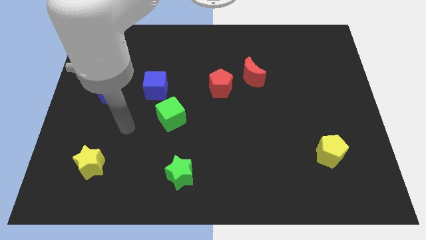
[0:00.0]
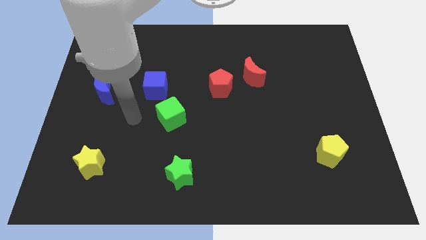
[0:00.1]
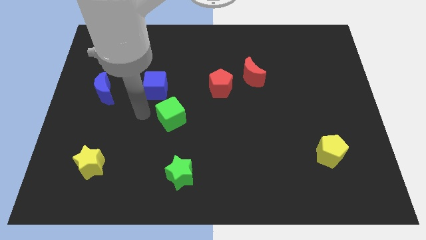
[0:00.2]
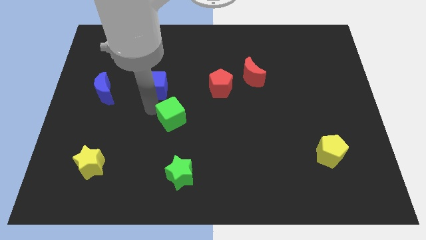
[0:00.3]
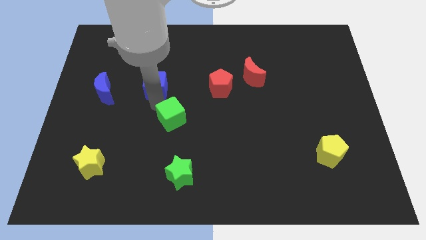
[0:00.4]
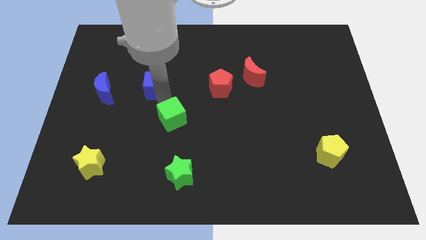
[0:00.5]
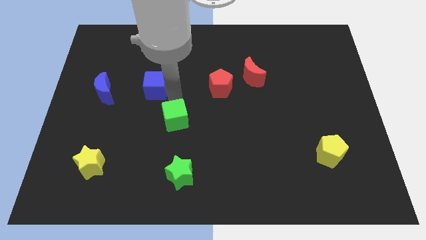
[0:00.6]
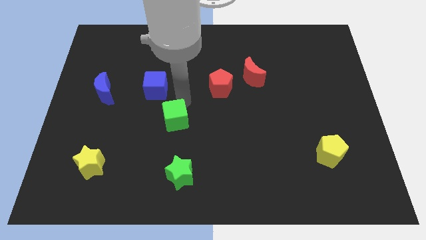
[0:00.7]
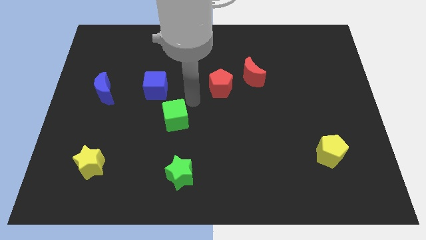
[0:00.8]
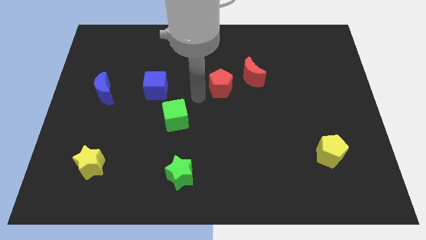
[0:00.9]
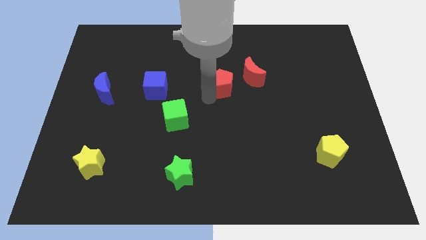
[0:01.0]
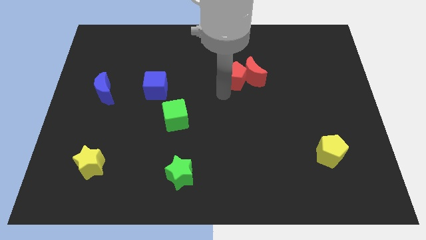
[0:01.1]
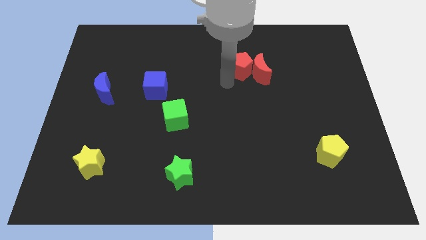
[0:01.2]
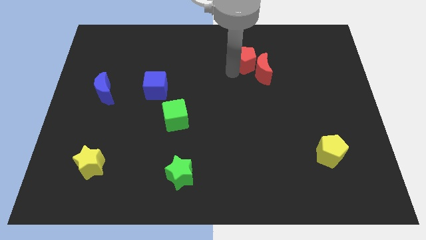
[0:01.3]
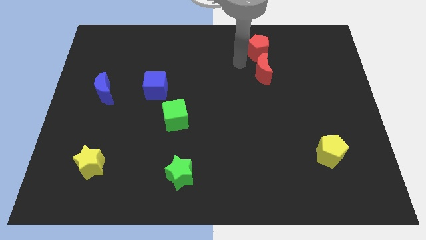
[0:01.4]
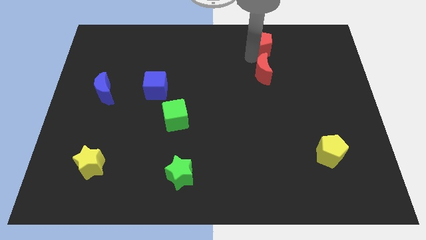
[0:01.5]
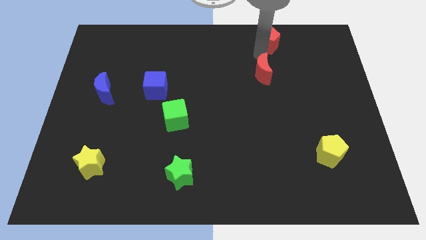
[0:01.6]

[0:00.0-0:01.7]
move the red moon away from the red pentagon

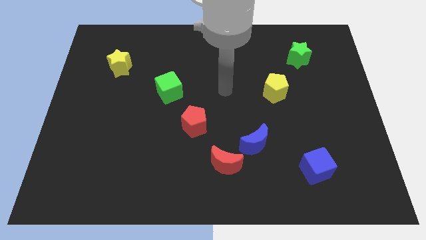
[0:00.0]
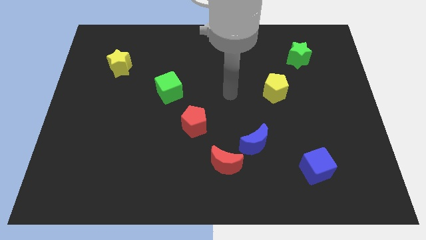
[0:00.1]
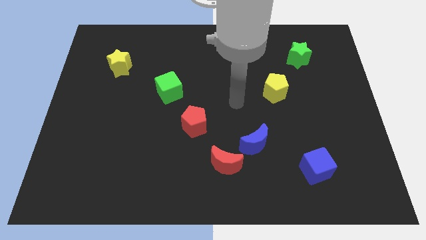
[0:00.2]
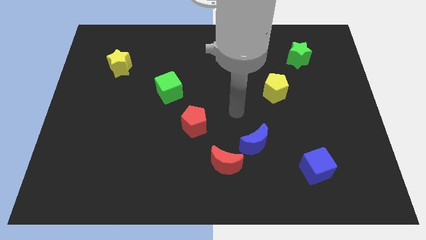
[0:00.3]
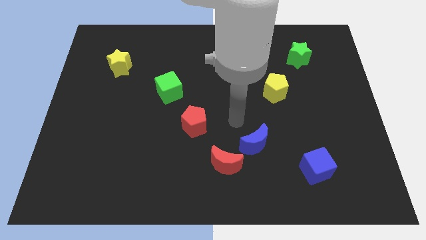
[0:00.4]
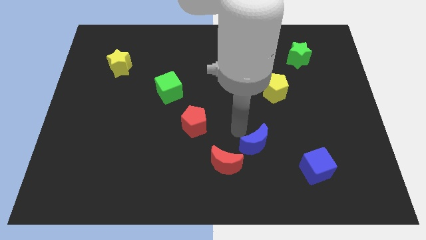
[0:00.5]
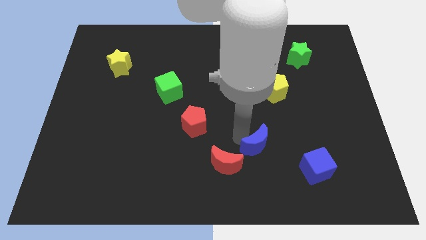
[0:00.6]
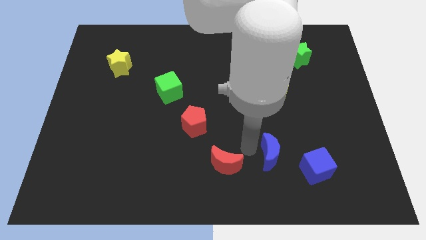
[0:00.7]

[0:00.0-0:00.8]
separate the red moon from the blue moon

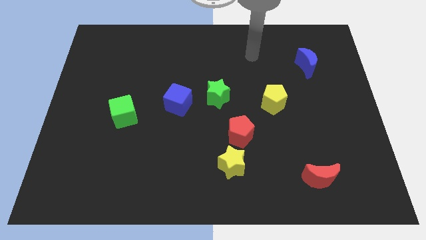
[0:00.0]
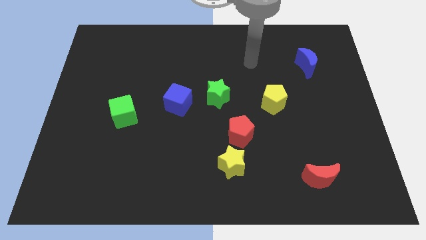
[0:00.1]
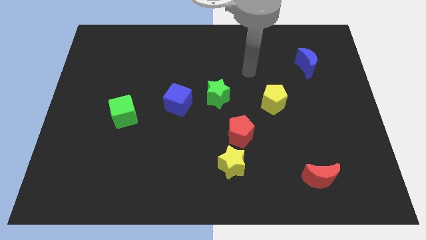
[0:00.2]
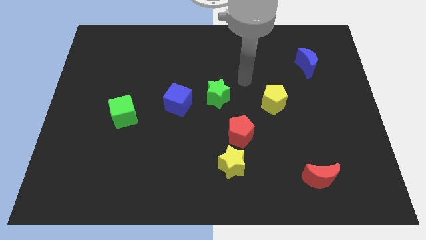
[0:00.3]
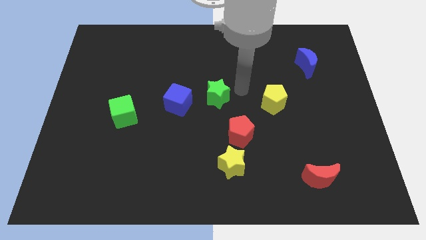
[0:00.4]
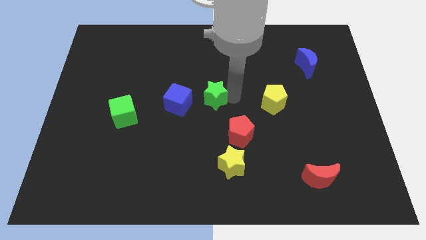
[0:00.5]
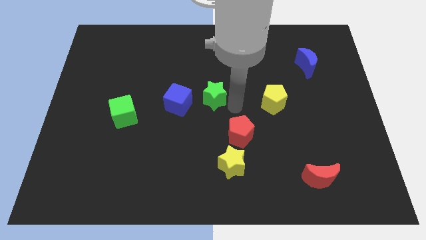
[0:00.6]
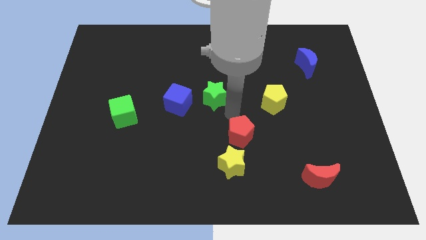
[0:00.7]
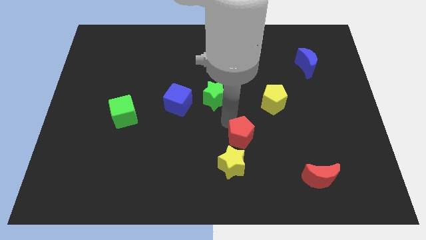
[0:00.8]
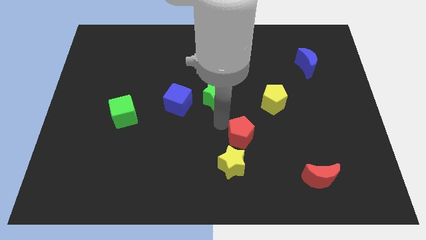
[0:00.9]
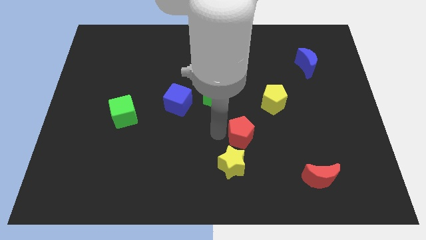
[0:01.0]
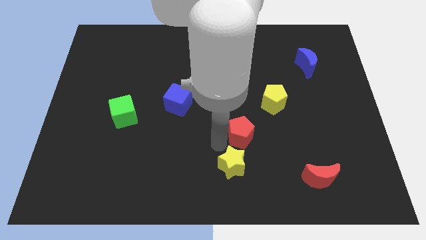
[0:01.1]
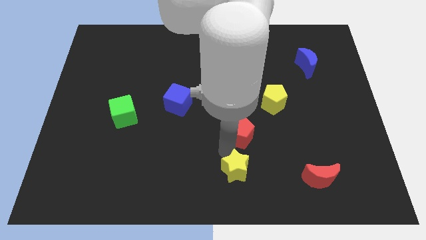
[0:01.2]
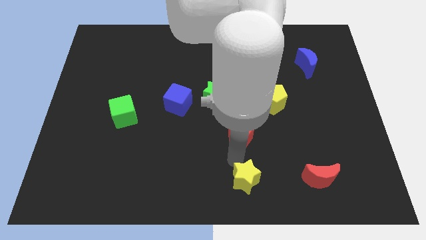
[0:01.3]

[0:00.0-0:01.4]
separate the red pentagon from the yellow star

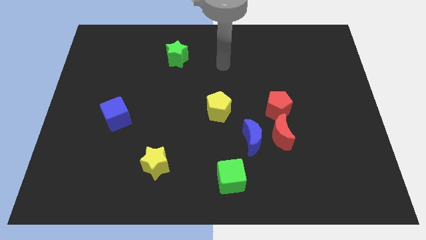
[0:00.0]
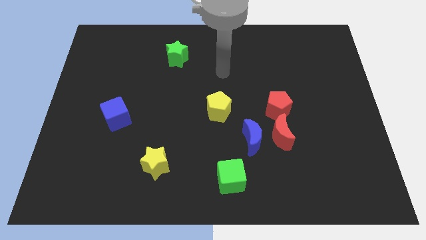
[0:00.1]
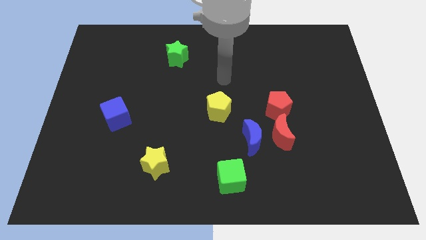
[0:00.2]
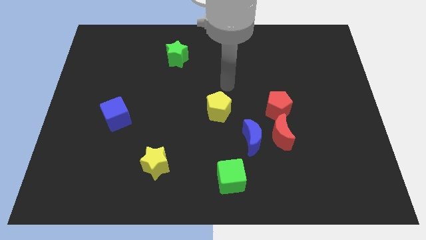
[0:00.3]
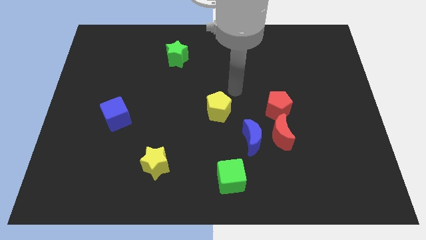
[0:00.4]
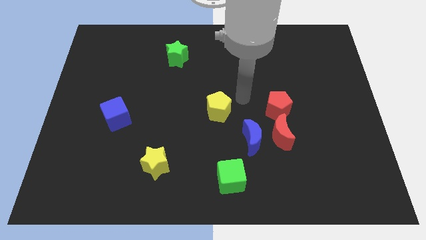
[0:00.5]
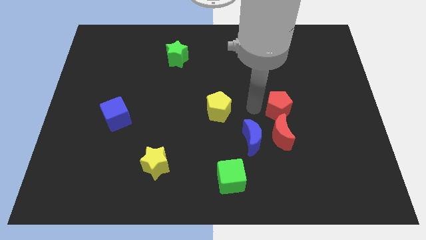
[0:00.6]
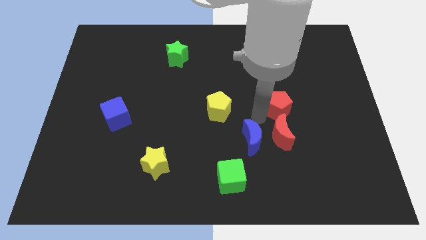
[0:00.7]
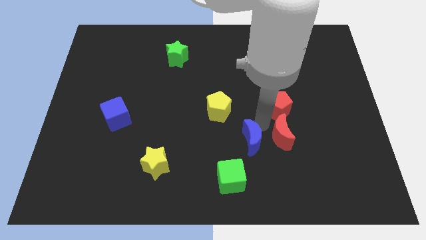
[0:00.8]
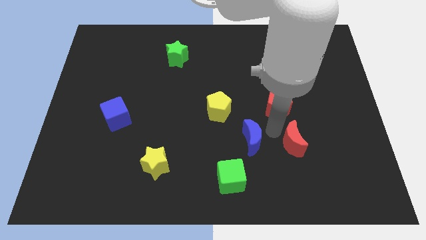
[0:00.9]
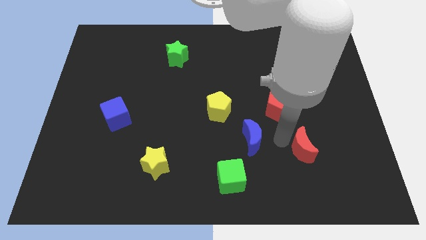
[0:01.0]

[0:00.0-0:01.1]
move the blue moon away from the red moon

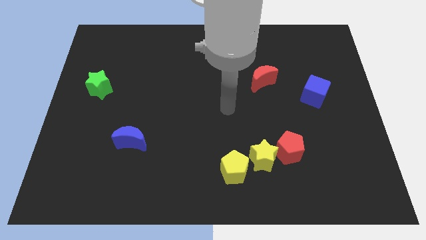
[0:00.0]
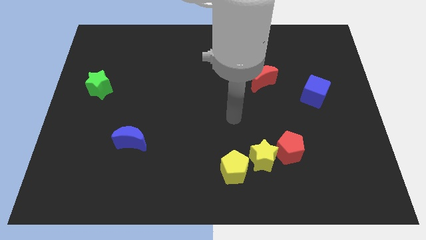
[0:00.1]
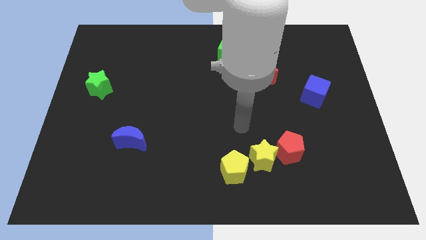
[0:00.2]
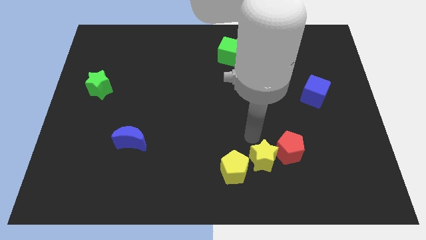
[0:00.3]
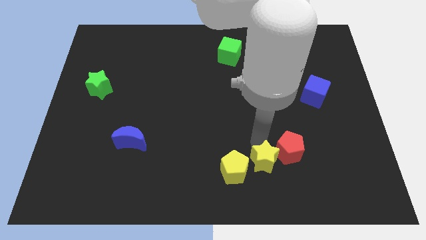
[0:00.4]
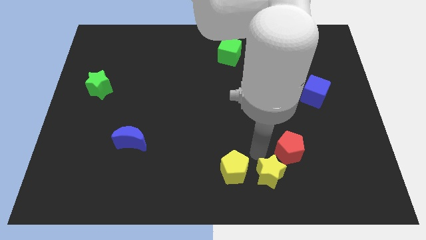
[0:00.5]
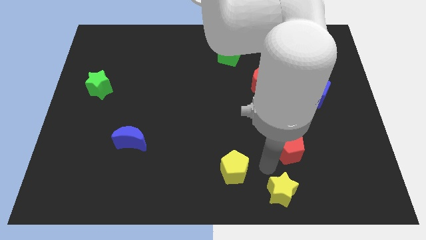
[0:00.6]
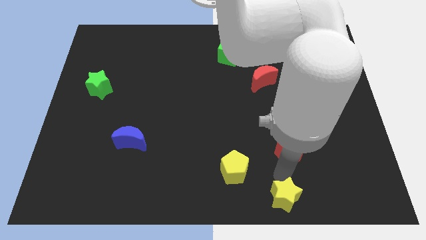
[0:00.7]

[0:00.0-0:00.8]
pull the red pentagon apart from the yellow star

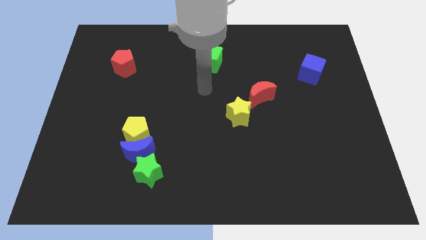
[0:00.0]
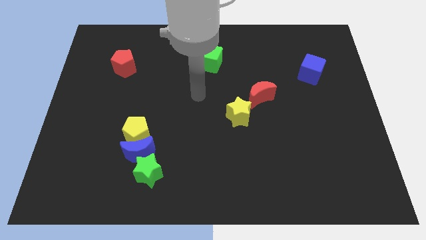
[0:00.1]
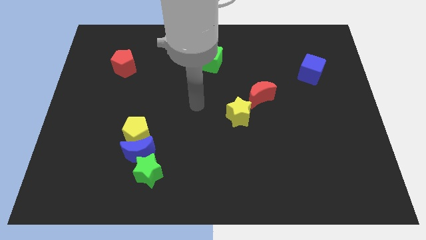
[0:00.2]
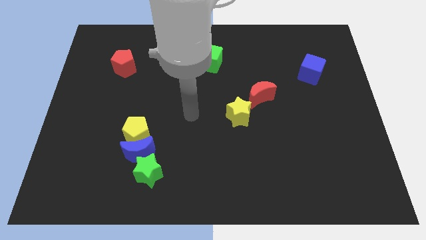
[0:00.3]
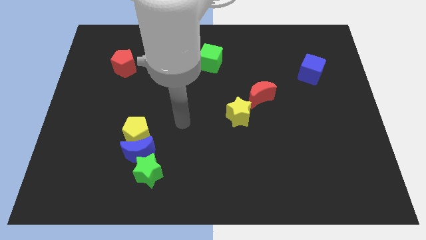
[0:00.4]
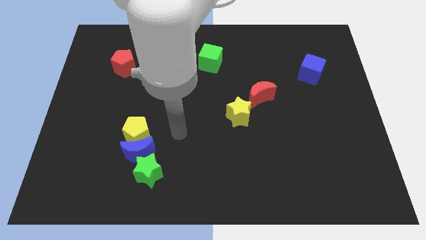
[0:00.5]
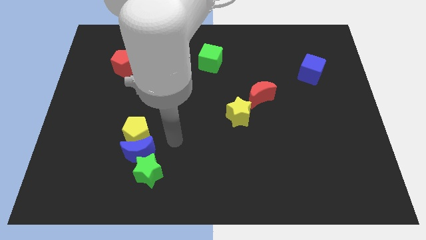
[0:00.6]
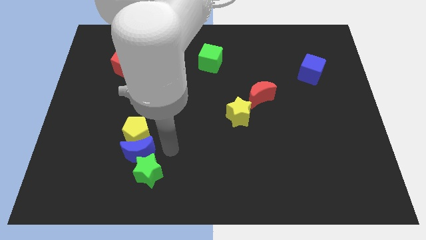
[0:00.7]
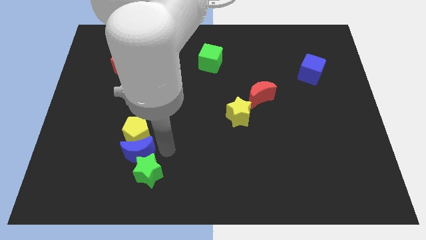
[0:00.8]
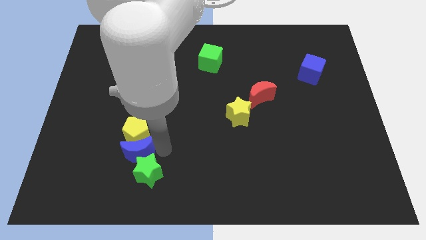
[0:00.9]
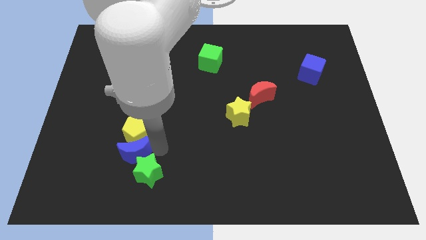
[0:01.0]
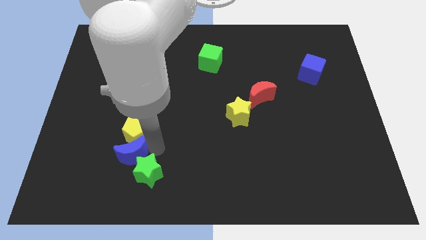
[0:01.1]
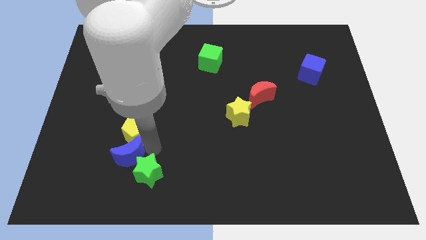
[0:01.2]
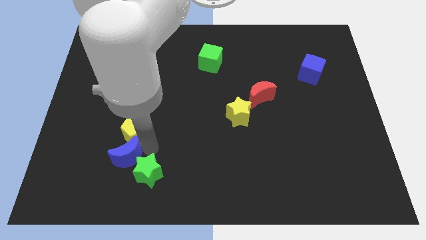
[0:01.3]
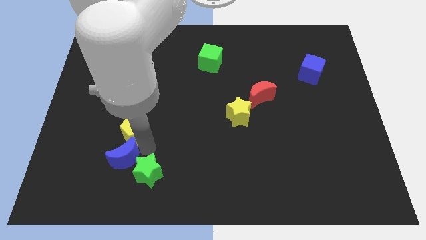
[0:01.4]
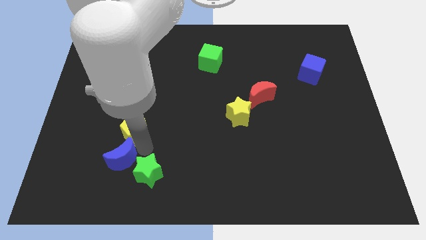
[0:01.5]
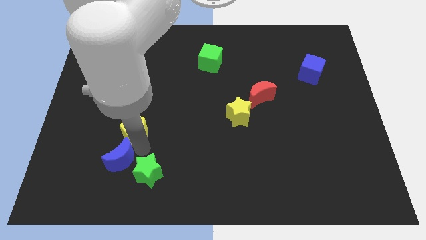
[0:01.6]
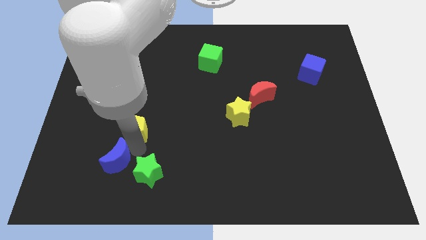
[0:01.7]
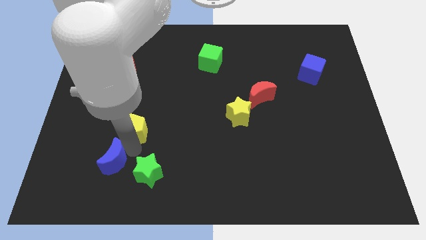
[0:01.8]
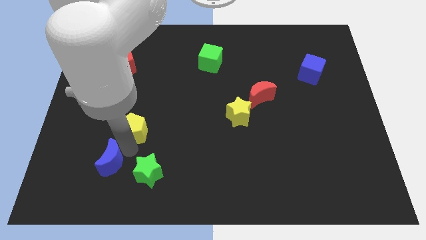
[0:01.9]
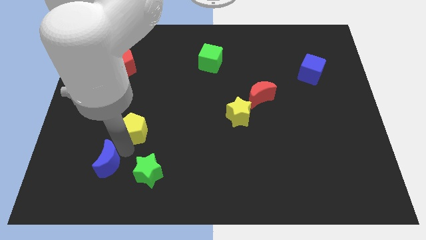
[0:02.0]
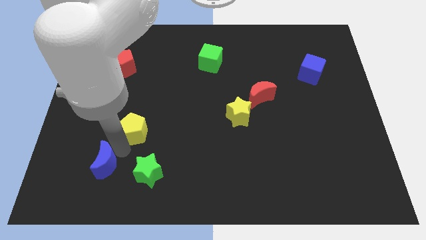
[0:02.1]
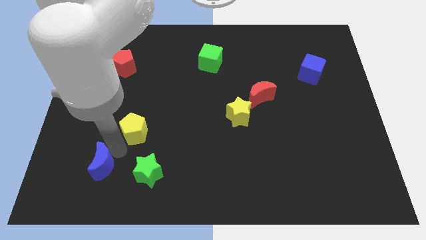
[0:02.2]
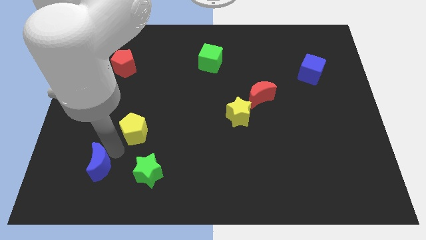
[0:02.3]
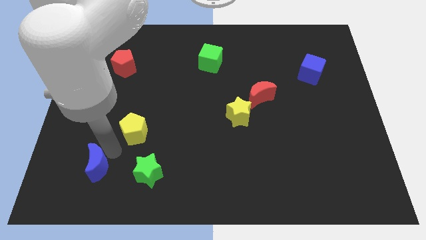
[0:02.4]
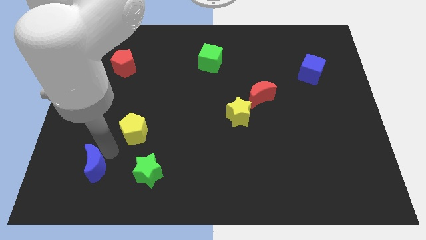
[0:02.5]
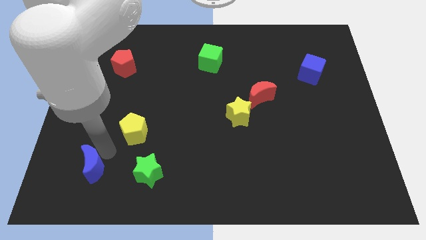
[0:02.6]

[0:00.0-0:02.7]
separate the blue moon from the yellow pentagon and green star

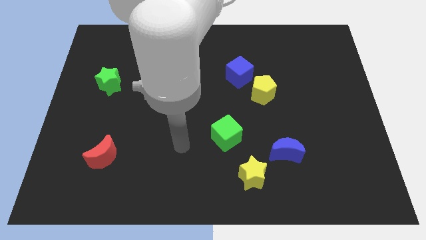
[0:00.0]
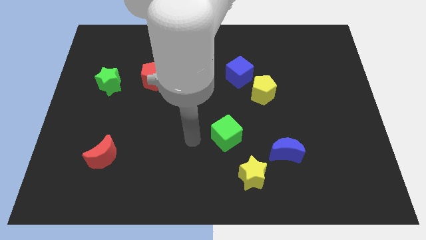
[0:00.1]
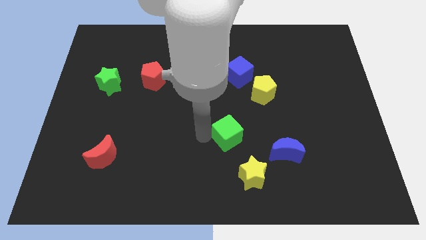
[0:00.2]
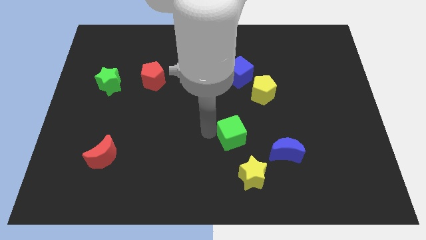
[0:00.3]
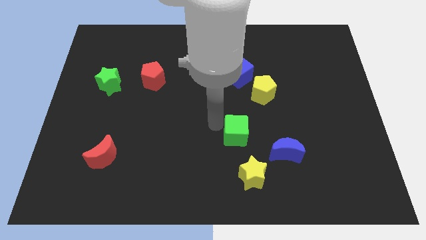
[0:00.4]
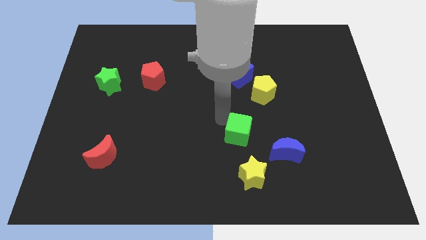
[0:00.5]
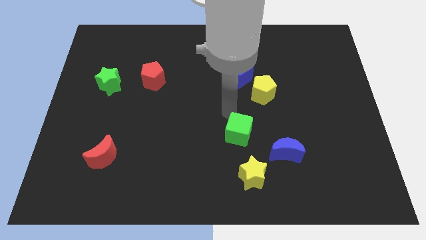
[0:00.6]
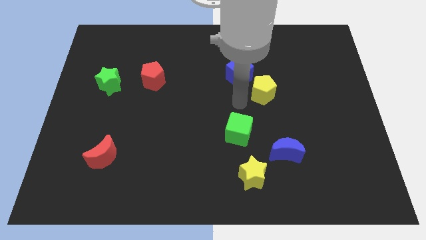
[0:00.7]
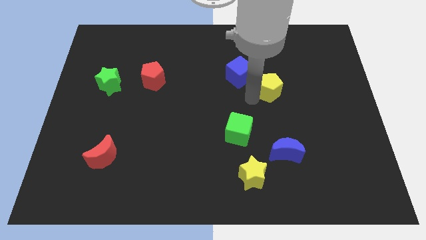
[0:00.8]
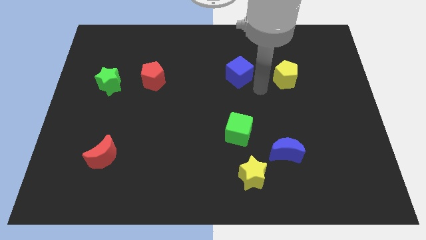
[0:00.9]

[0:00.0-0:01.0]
separate the blue cube from the yellow pentagon
